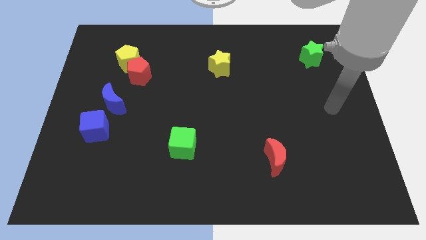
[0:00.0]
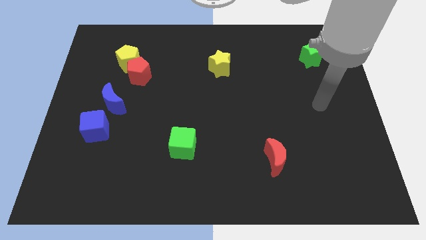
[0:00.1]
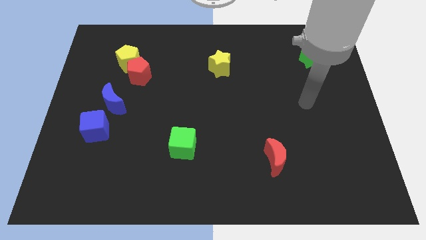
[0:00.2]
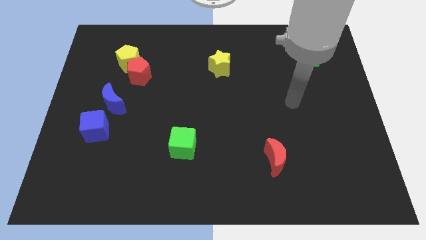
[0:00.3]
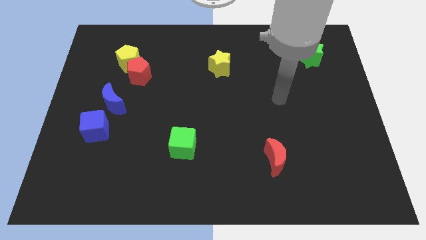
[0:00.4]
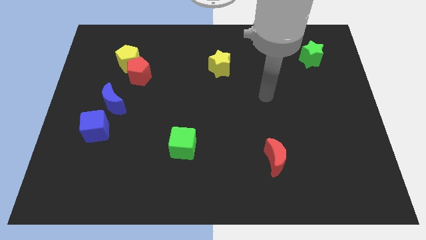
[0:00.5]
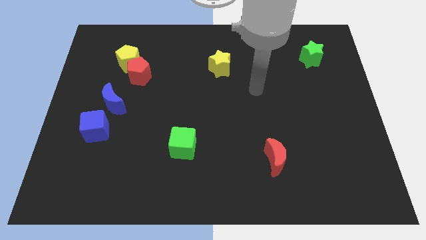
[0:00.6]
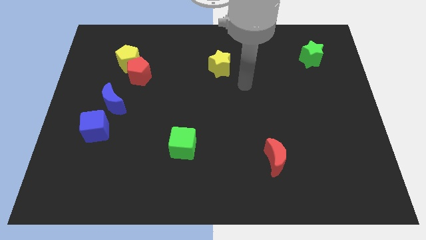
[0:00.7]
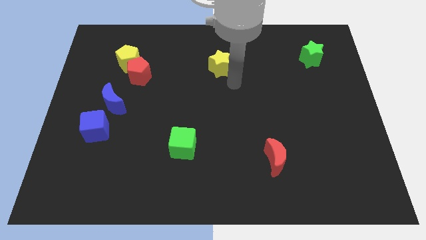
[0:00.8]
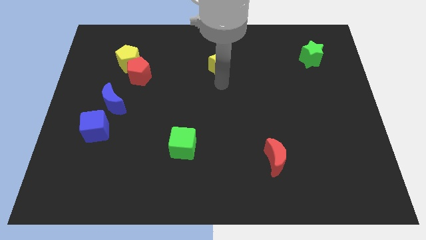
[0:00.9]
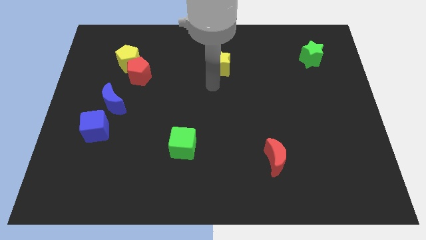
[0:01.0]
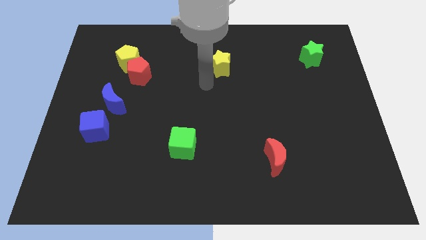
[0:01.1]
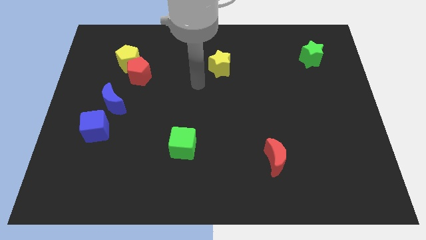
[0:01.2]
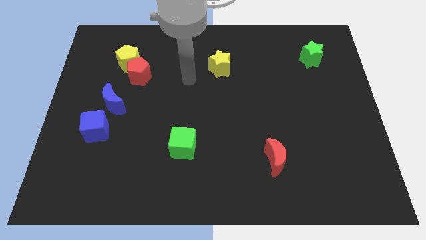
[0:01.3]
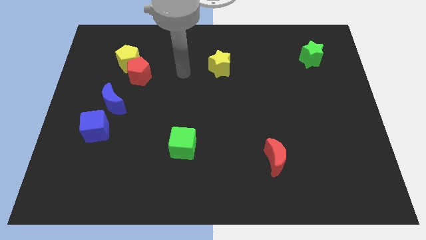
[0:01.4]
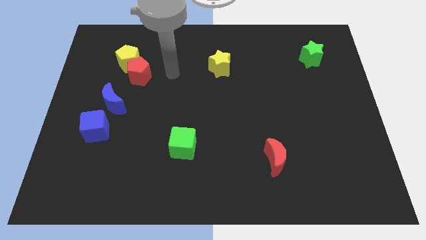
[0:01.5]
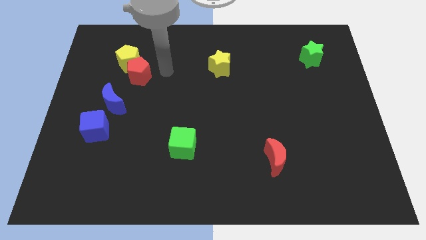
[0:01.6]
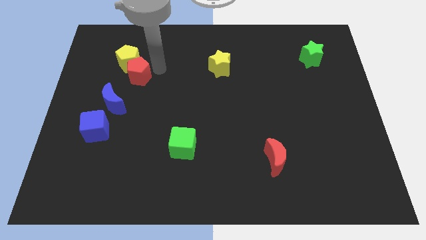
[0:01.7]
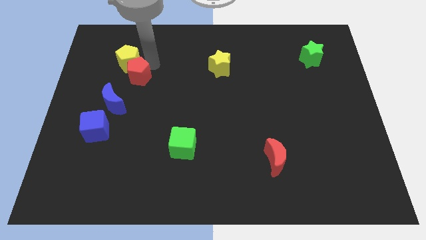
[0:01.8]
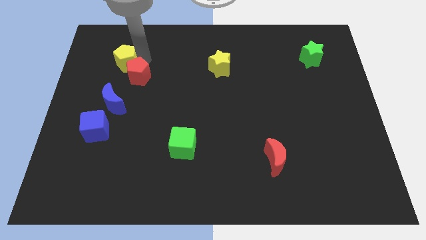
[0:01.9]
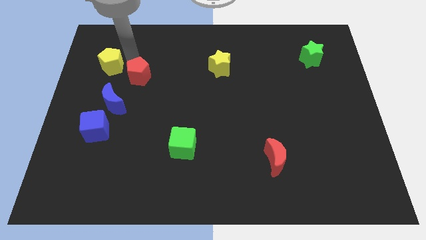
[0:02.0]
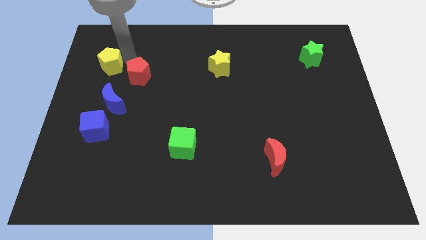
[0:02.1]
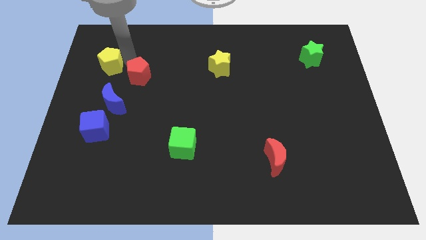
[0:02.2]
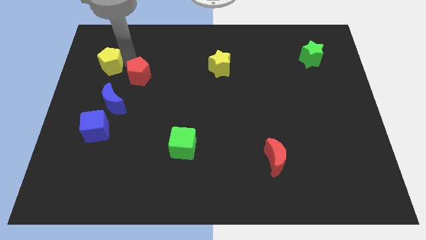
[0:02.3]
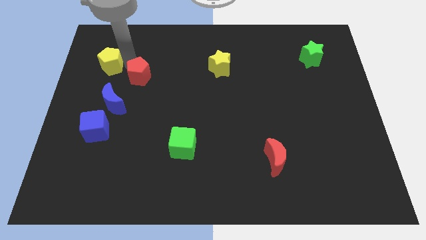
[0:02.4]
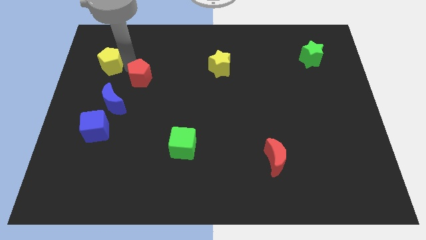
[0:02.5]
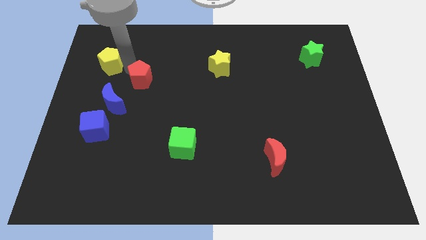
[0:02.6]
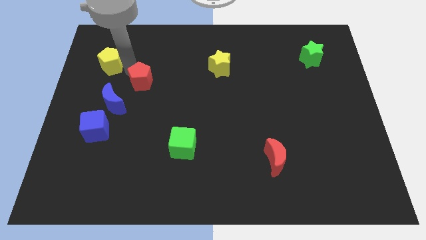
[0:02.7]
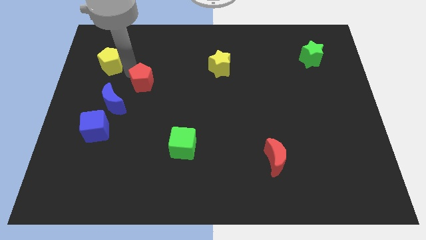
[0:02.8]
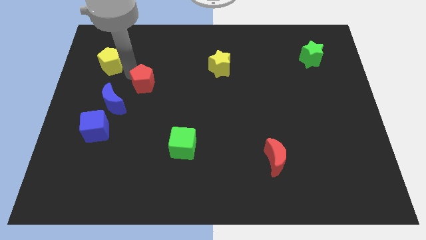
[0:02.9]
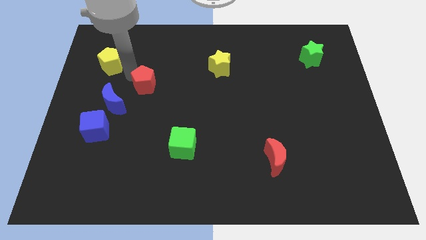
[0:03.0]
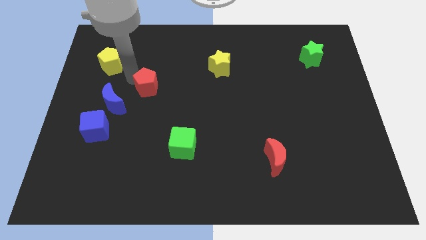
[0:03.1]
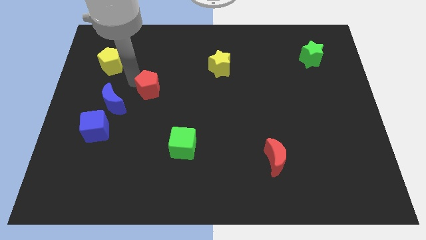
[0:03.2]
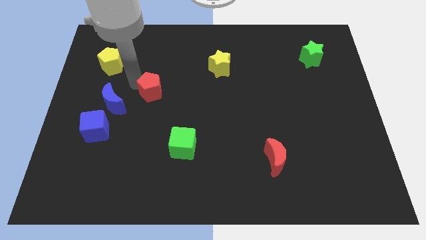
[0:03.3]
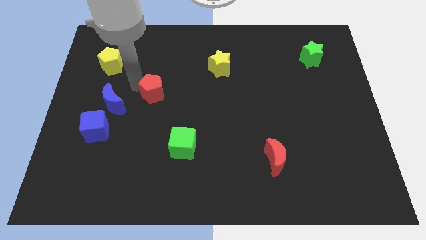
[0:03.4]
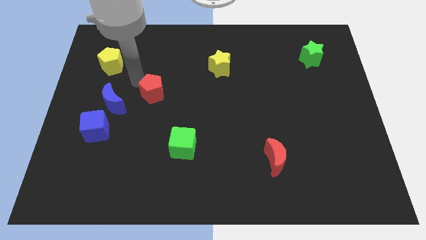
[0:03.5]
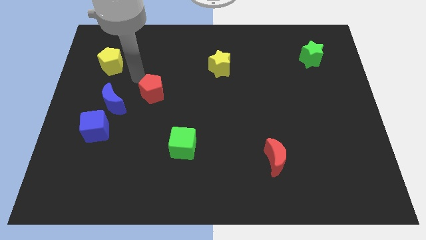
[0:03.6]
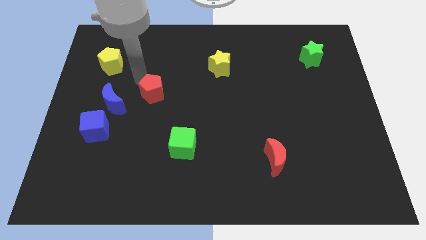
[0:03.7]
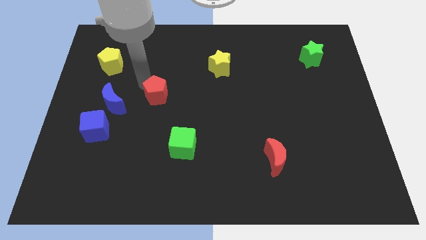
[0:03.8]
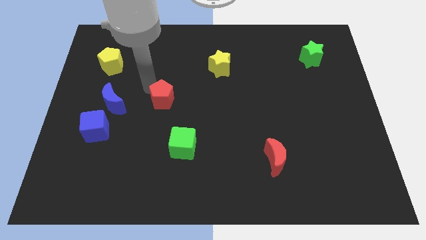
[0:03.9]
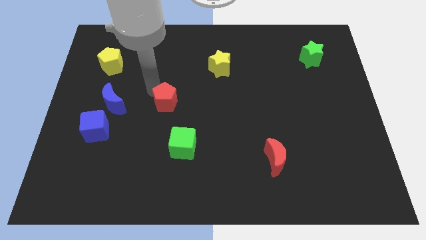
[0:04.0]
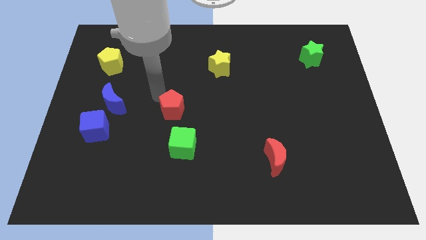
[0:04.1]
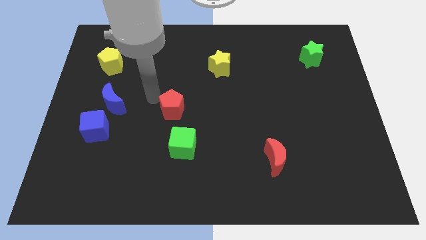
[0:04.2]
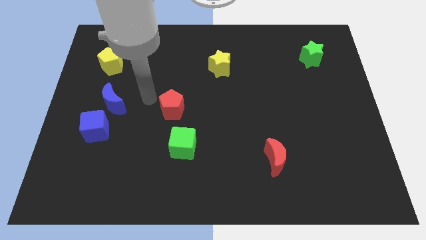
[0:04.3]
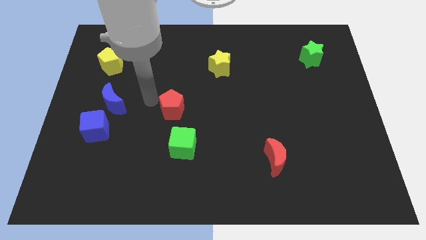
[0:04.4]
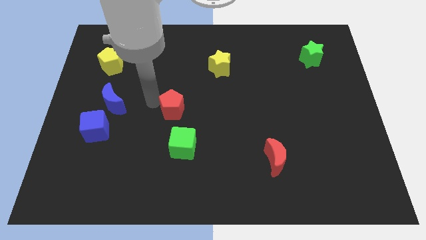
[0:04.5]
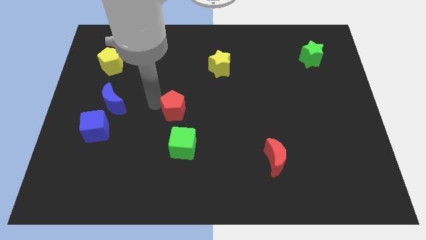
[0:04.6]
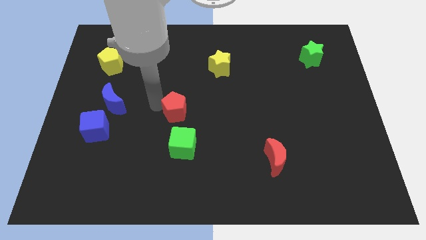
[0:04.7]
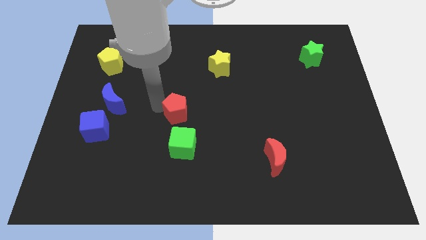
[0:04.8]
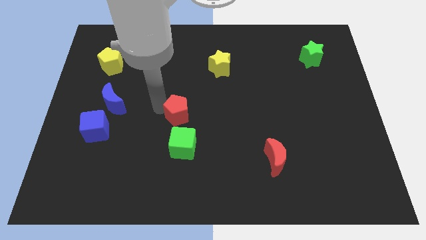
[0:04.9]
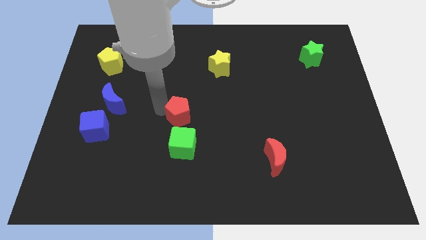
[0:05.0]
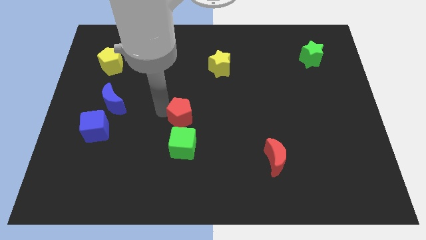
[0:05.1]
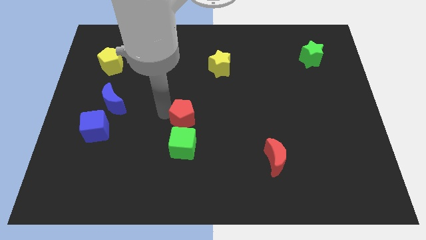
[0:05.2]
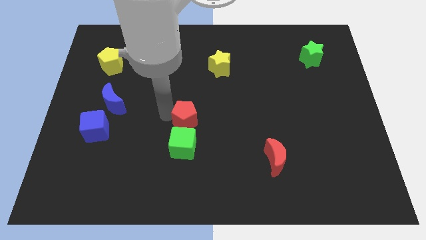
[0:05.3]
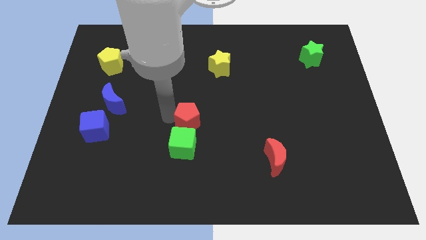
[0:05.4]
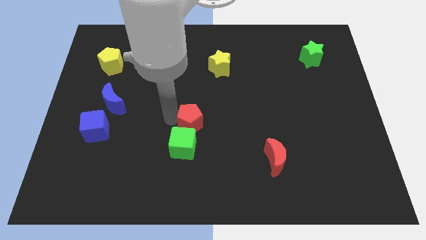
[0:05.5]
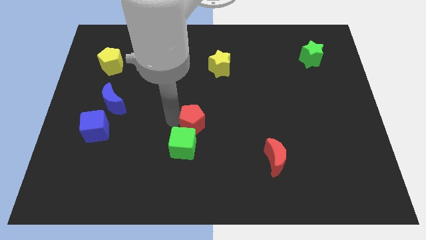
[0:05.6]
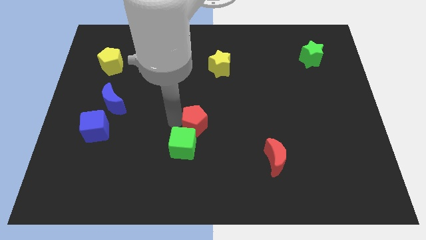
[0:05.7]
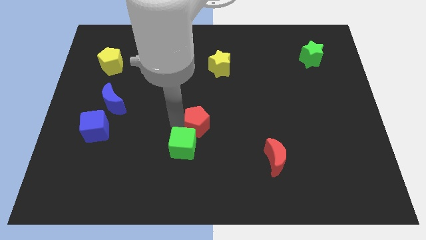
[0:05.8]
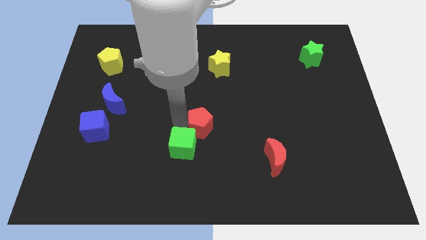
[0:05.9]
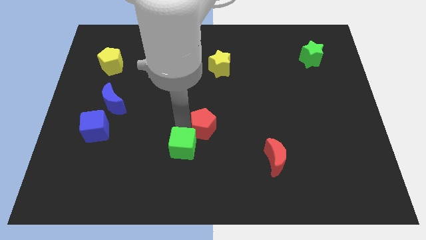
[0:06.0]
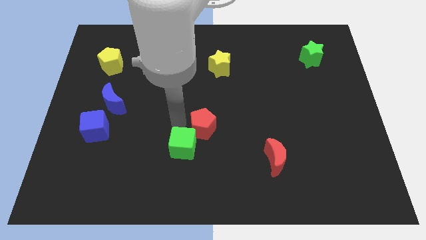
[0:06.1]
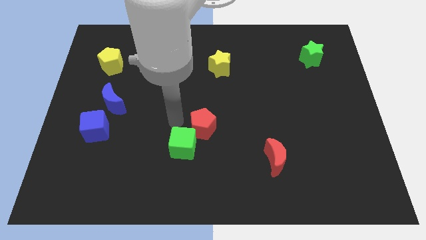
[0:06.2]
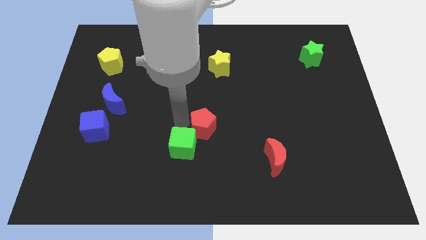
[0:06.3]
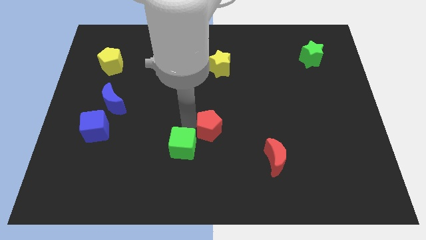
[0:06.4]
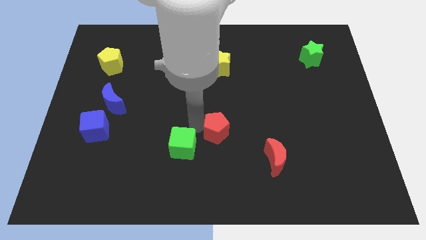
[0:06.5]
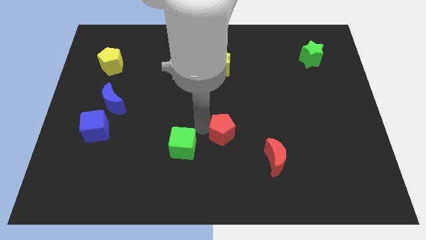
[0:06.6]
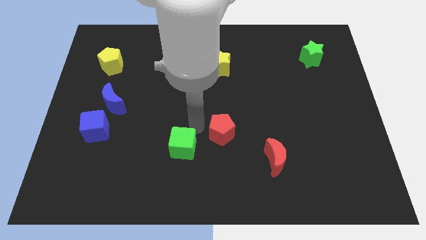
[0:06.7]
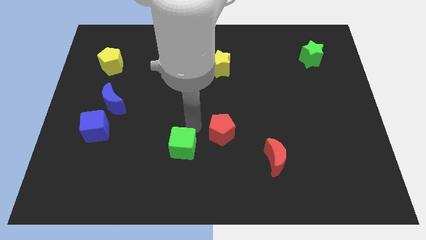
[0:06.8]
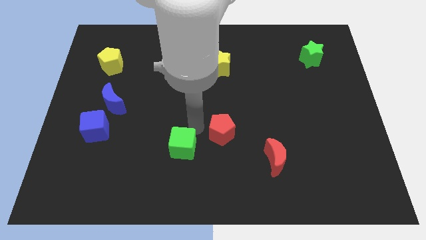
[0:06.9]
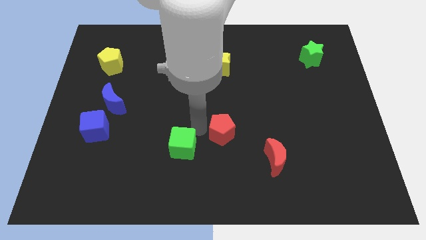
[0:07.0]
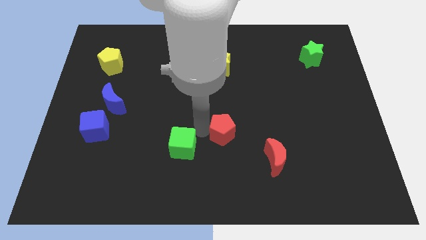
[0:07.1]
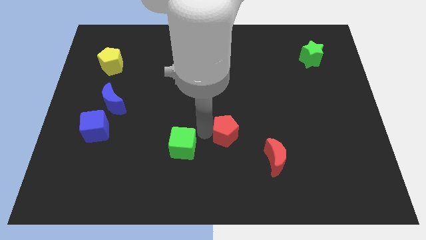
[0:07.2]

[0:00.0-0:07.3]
put the red pentagon to the top left side of the red moon

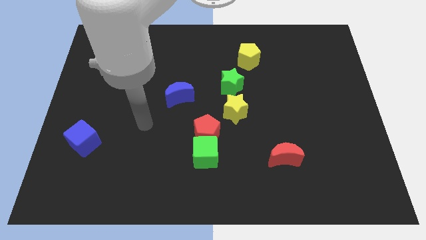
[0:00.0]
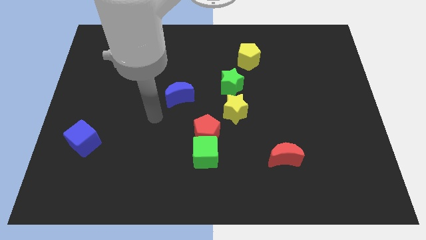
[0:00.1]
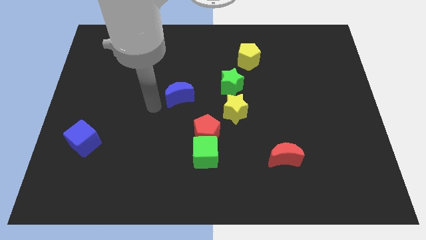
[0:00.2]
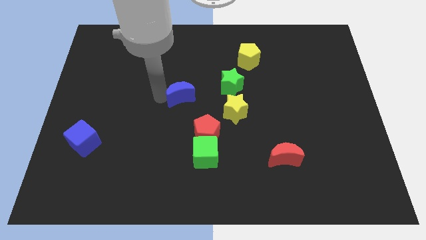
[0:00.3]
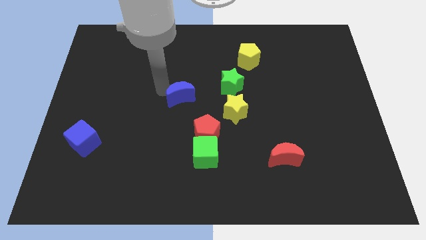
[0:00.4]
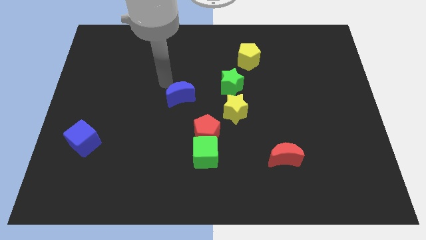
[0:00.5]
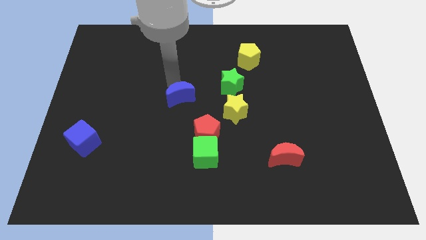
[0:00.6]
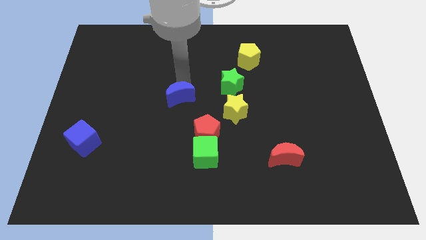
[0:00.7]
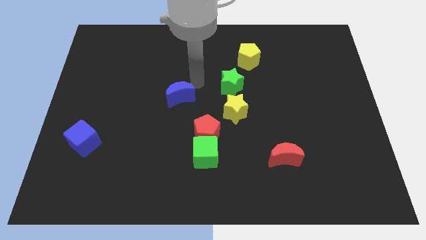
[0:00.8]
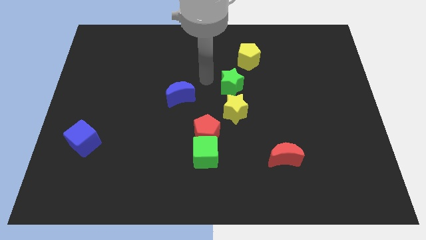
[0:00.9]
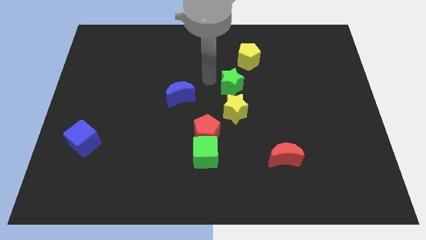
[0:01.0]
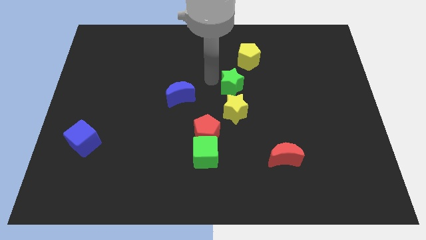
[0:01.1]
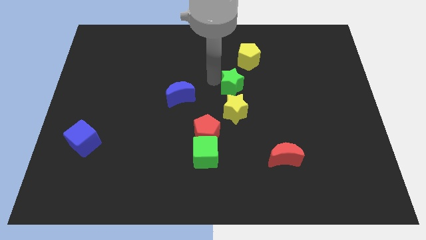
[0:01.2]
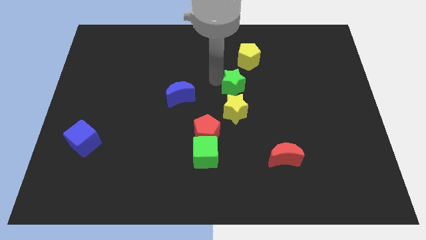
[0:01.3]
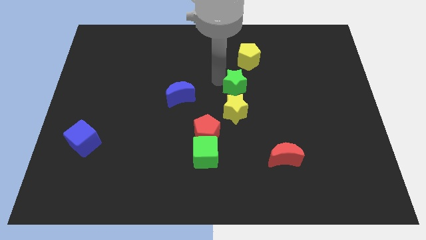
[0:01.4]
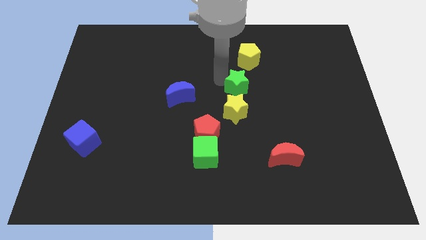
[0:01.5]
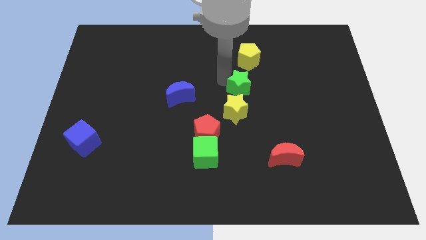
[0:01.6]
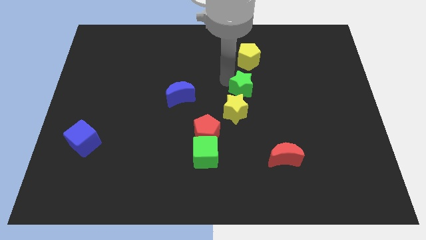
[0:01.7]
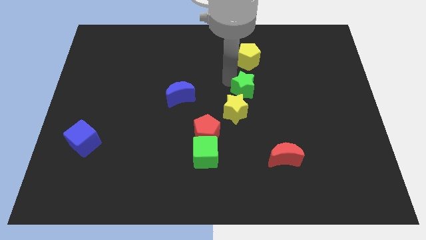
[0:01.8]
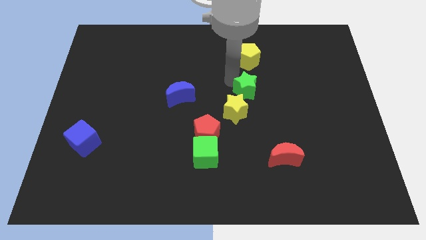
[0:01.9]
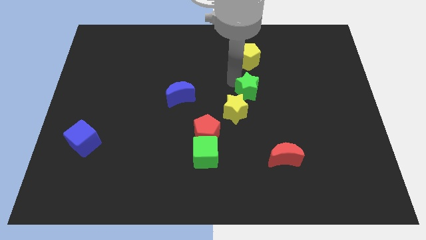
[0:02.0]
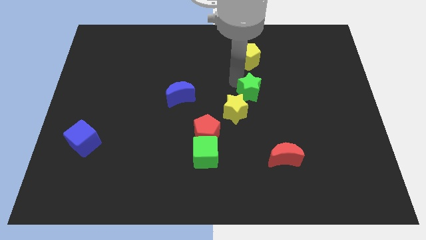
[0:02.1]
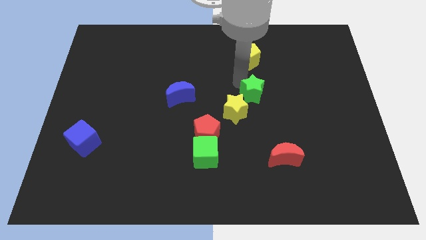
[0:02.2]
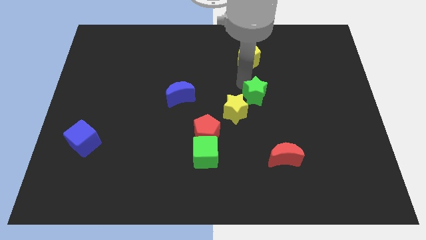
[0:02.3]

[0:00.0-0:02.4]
slide the green star right of the yellow star
